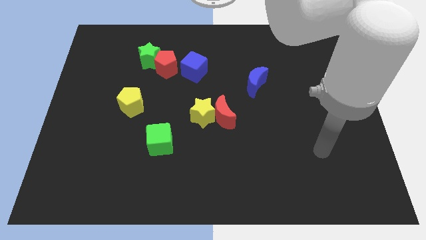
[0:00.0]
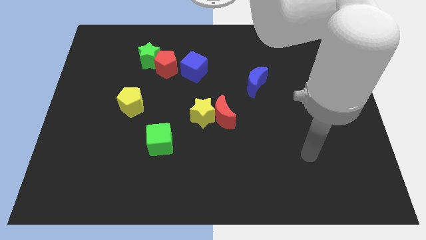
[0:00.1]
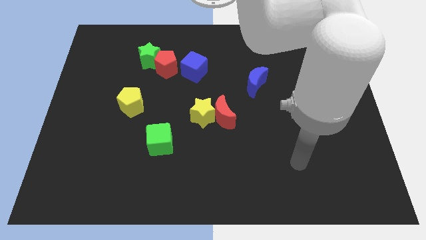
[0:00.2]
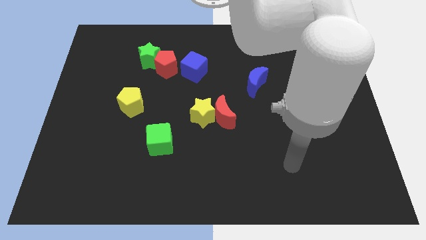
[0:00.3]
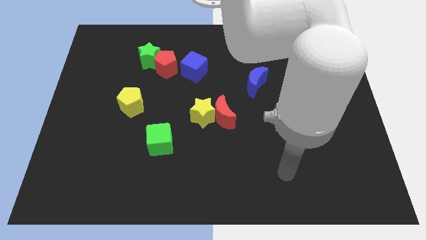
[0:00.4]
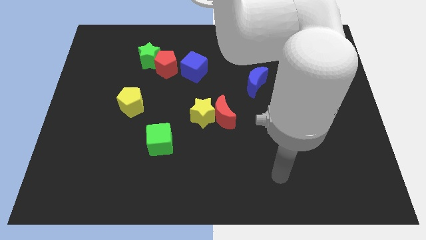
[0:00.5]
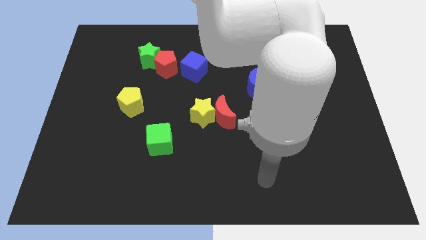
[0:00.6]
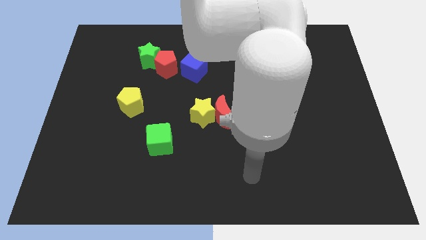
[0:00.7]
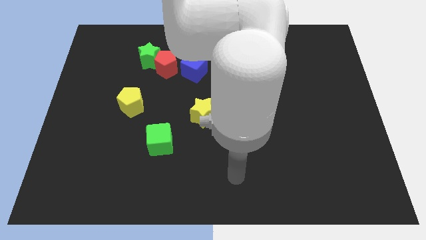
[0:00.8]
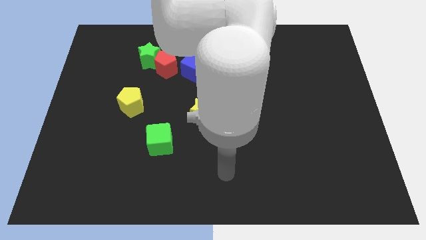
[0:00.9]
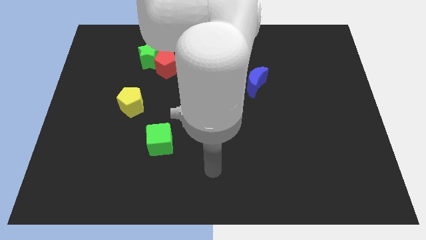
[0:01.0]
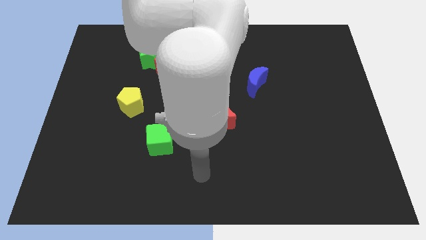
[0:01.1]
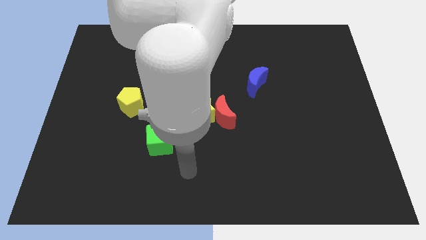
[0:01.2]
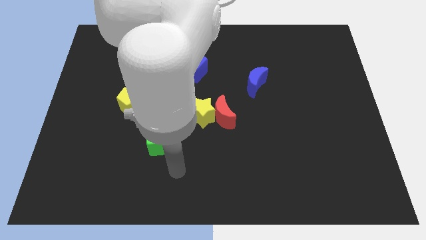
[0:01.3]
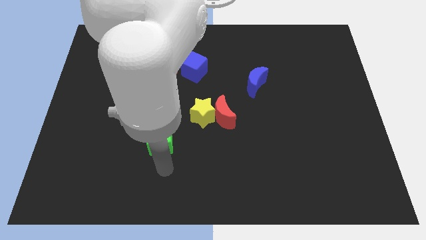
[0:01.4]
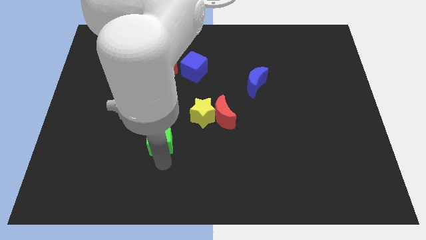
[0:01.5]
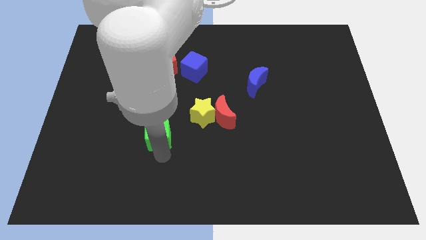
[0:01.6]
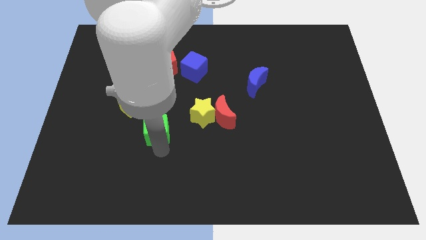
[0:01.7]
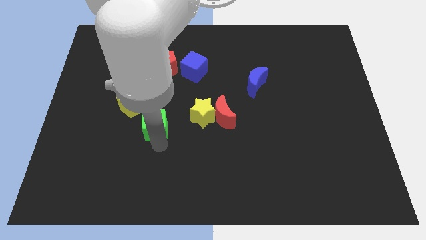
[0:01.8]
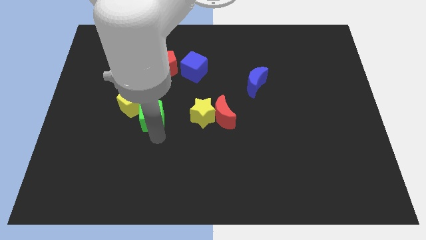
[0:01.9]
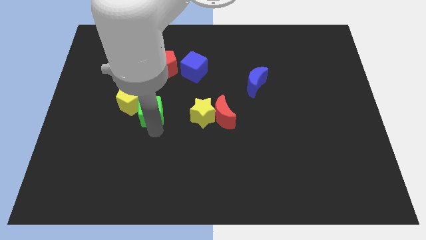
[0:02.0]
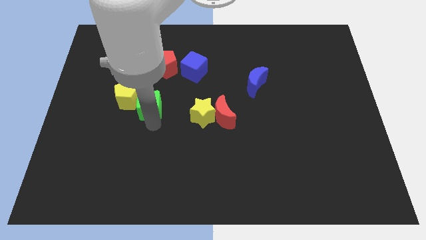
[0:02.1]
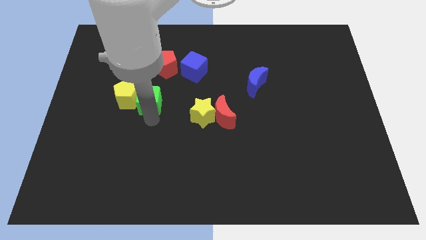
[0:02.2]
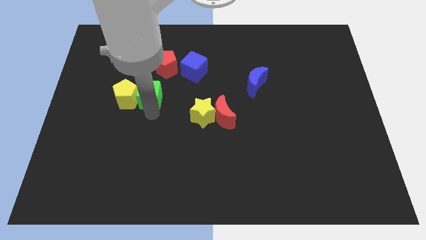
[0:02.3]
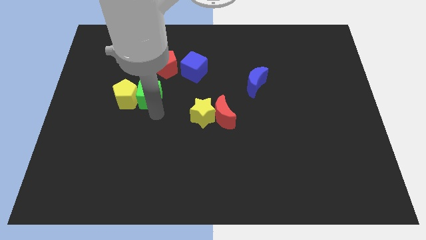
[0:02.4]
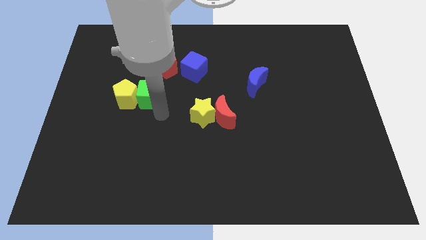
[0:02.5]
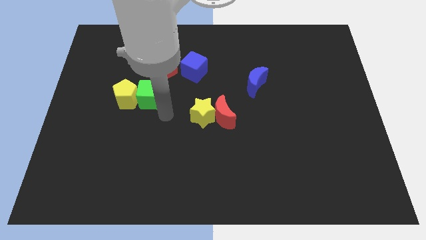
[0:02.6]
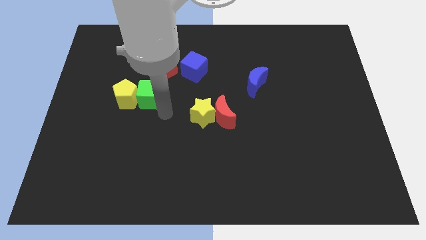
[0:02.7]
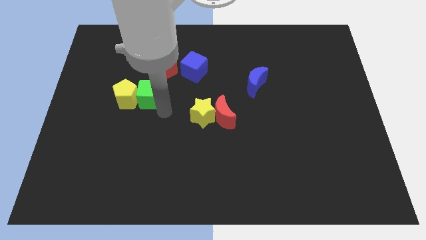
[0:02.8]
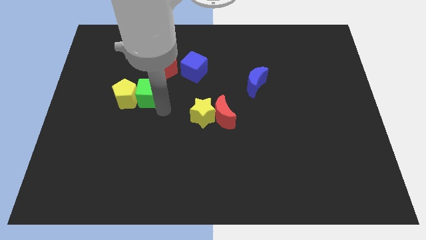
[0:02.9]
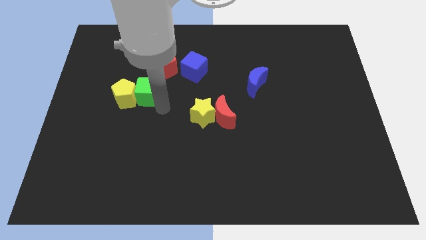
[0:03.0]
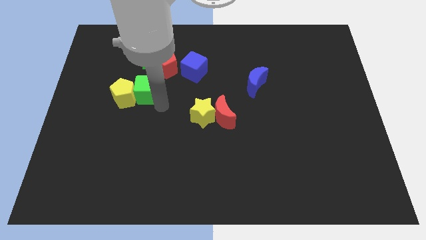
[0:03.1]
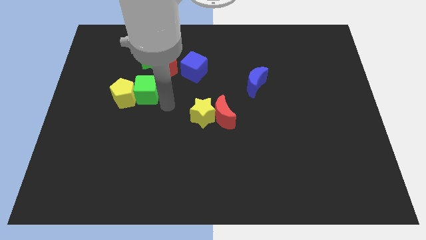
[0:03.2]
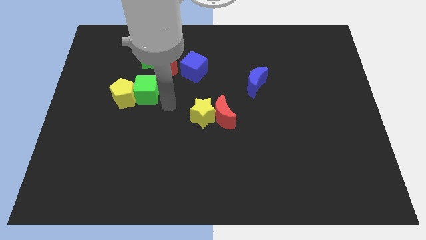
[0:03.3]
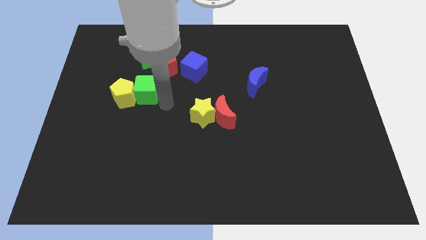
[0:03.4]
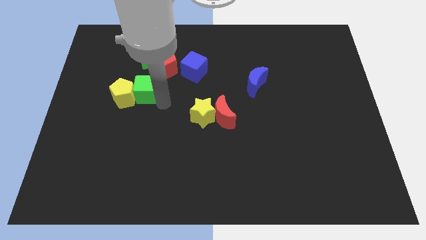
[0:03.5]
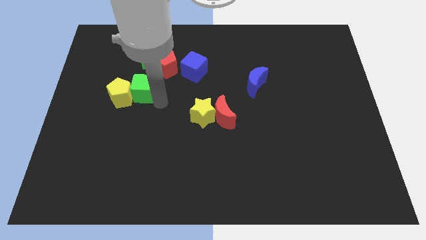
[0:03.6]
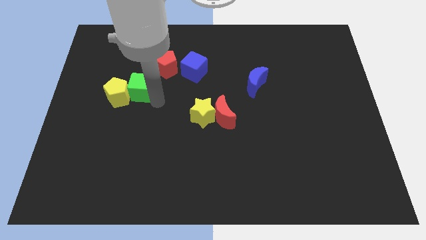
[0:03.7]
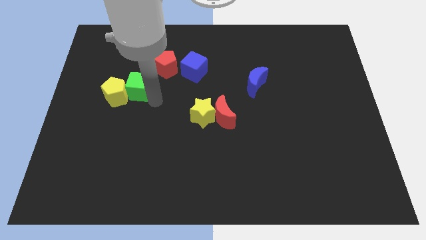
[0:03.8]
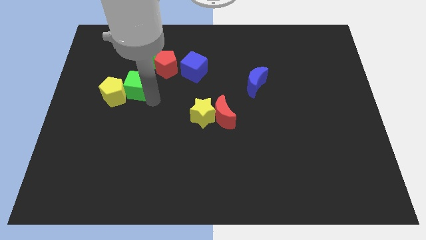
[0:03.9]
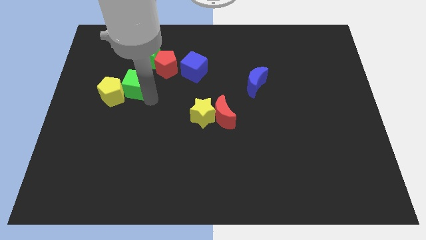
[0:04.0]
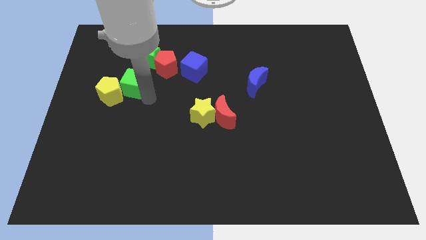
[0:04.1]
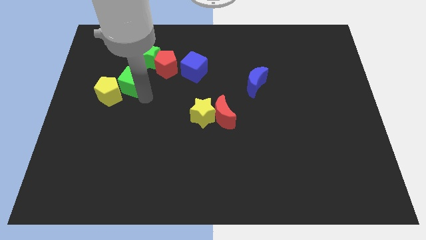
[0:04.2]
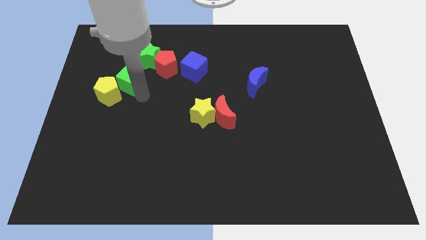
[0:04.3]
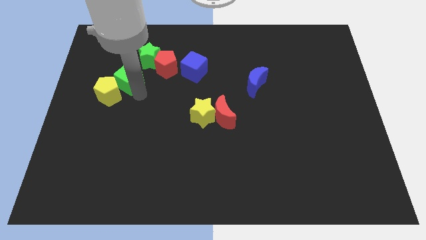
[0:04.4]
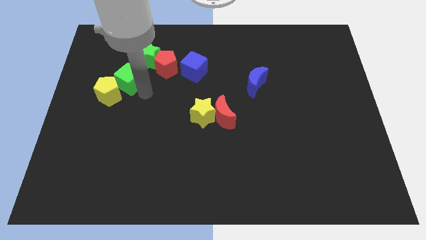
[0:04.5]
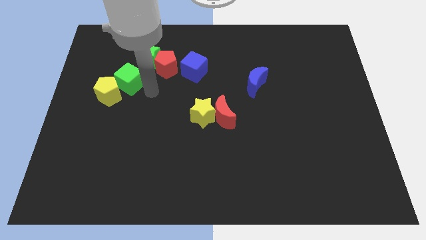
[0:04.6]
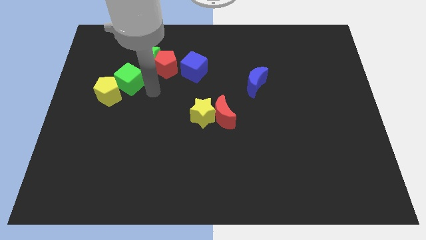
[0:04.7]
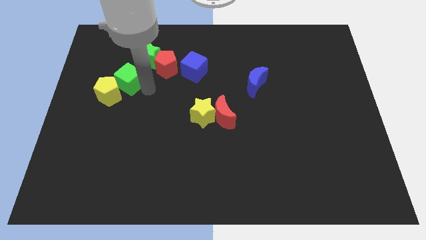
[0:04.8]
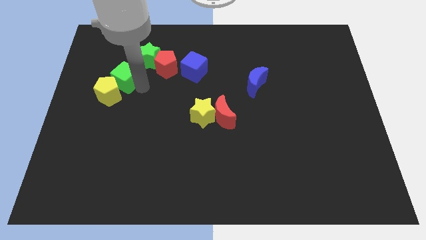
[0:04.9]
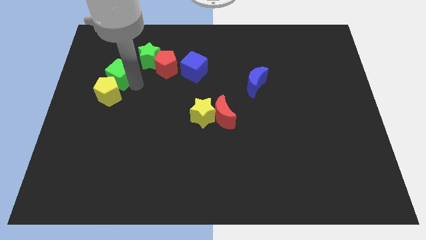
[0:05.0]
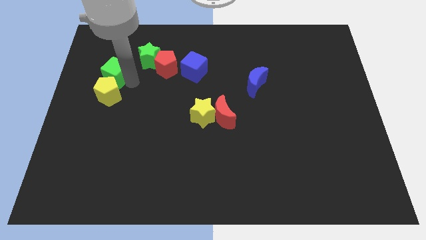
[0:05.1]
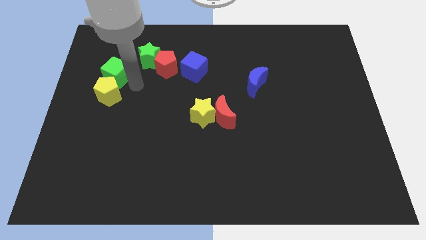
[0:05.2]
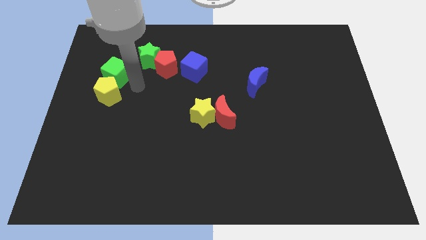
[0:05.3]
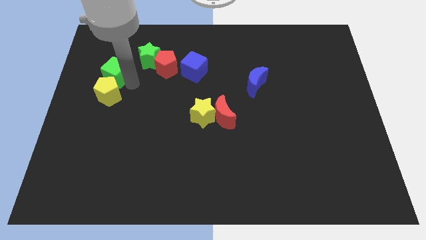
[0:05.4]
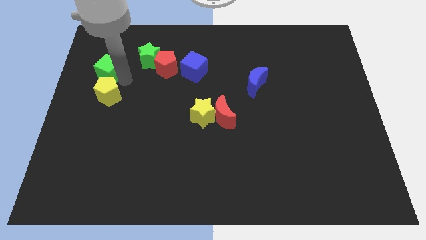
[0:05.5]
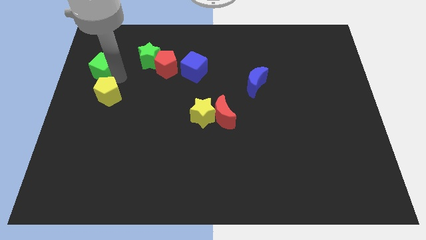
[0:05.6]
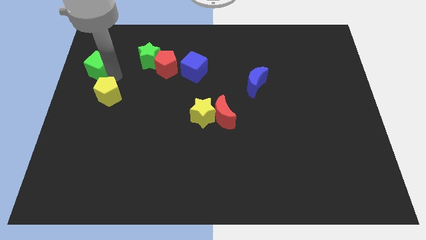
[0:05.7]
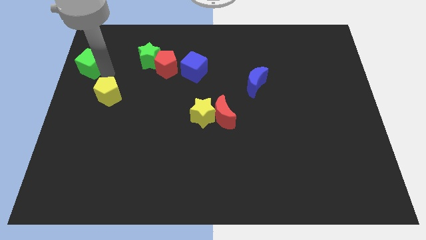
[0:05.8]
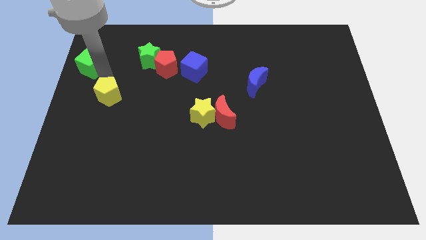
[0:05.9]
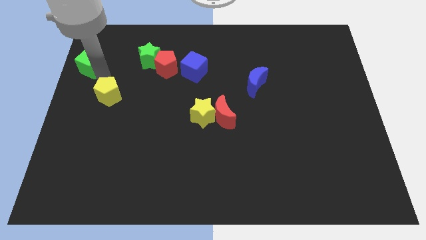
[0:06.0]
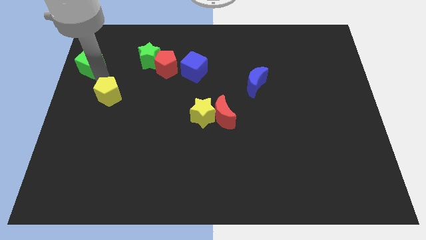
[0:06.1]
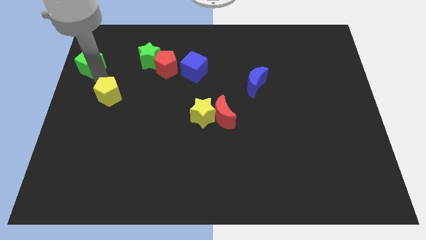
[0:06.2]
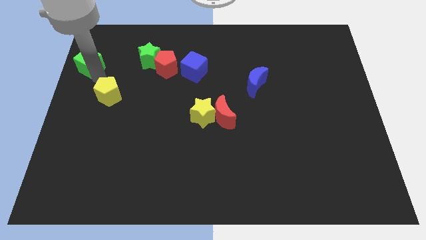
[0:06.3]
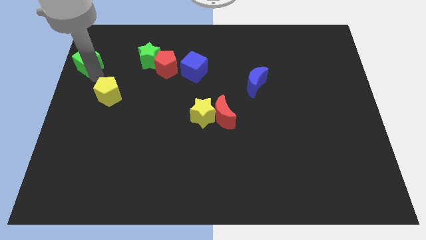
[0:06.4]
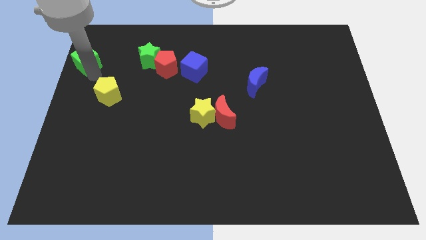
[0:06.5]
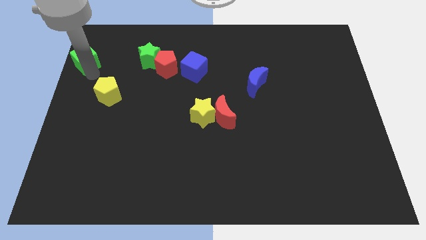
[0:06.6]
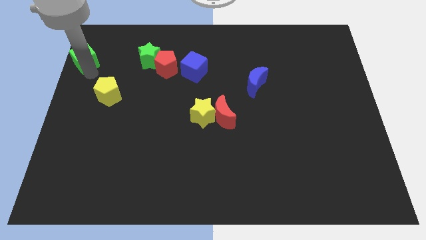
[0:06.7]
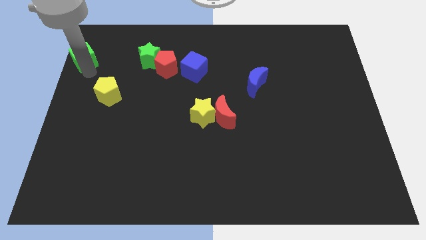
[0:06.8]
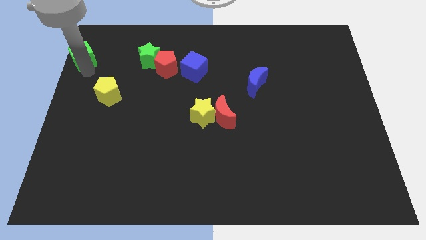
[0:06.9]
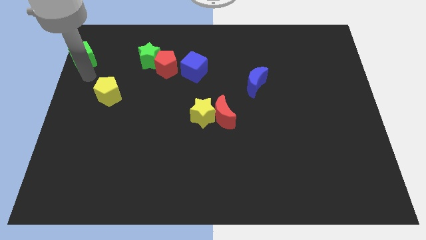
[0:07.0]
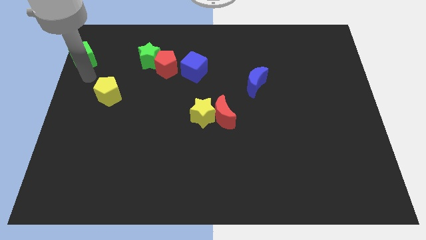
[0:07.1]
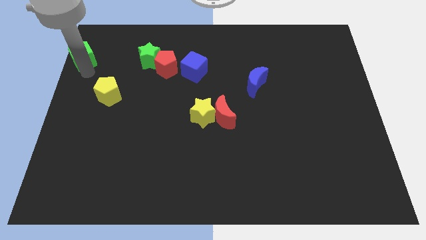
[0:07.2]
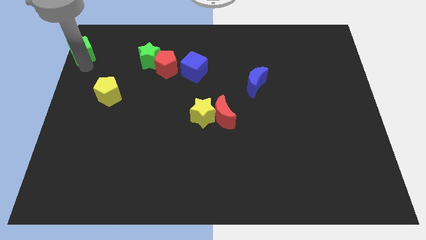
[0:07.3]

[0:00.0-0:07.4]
push the green cube to the top left corner

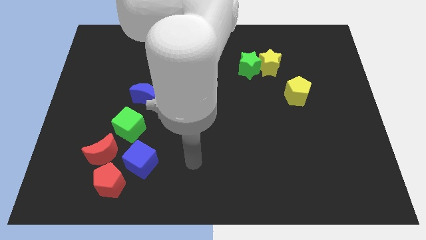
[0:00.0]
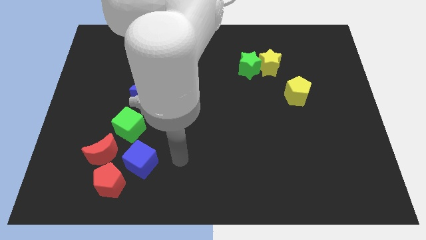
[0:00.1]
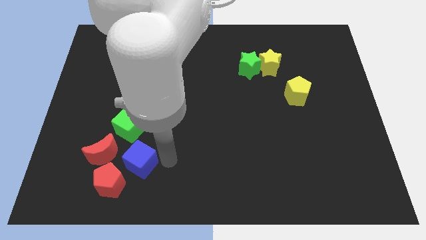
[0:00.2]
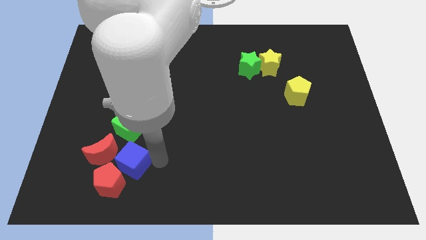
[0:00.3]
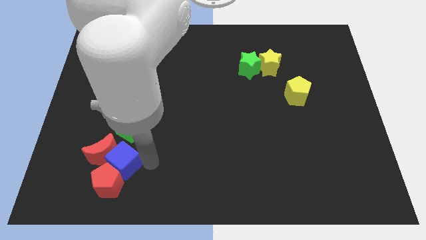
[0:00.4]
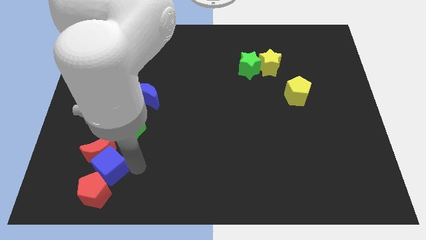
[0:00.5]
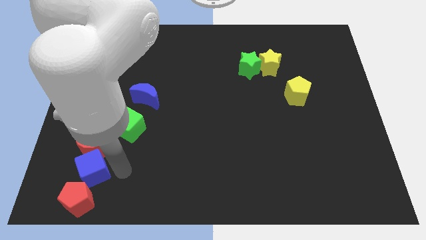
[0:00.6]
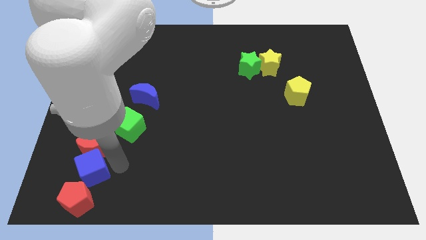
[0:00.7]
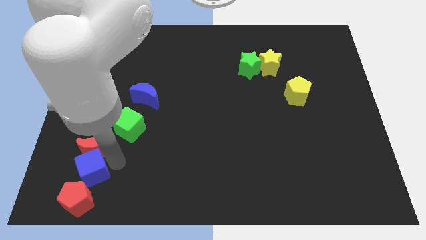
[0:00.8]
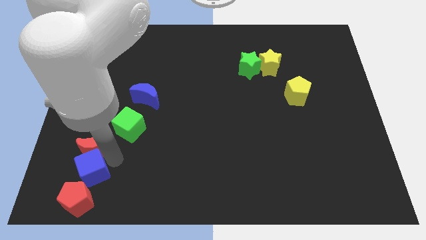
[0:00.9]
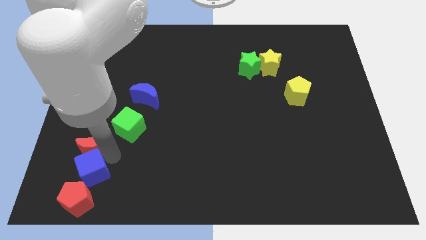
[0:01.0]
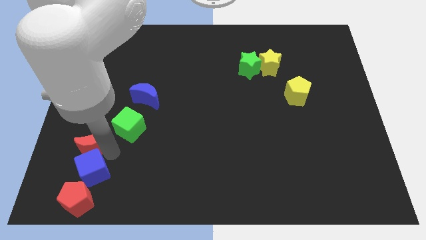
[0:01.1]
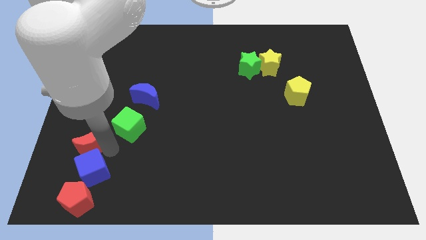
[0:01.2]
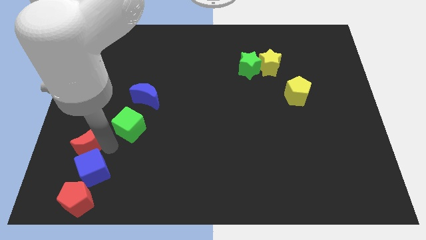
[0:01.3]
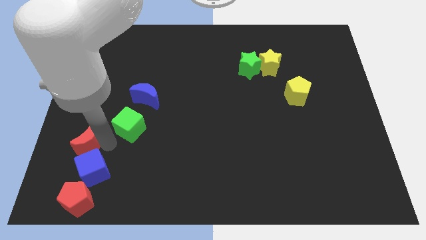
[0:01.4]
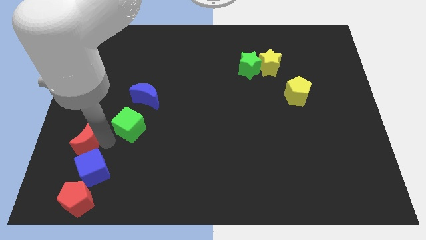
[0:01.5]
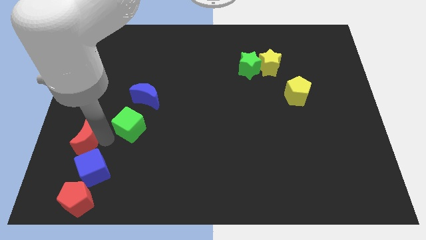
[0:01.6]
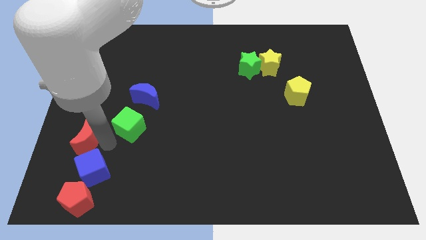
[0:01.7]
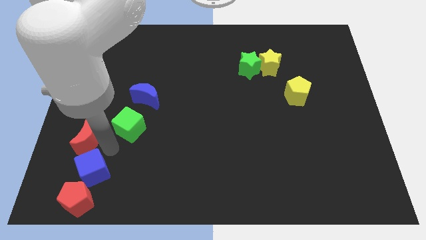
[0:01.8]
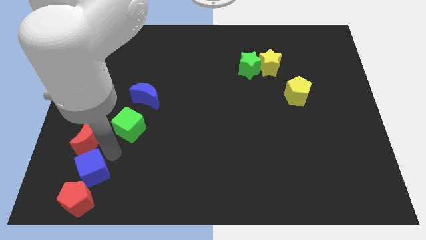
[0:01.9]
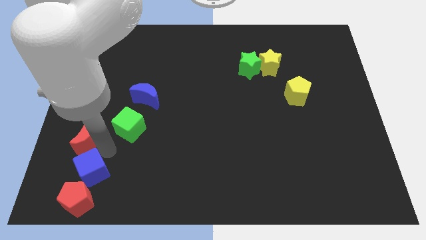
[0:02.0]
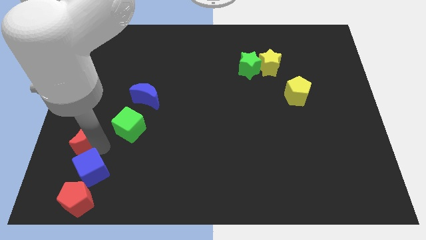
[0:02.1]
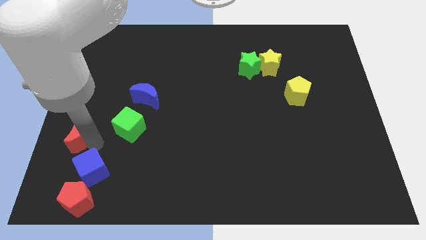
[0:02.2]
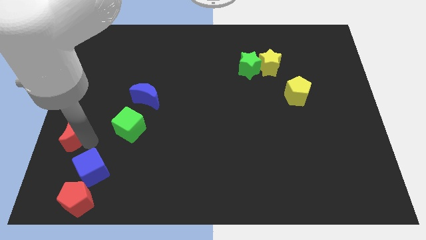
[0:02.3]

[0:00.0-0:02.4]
put the red moon to the left side of the board
